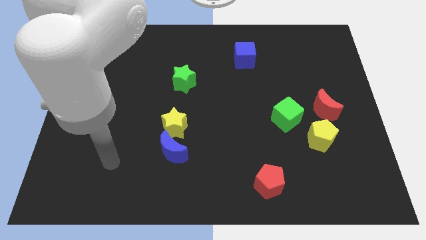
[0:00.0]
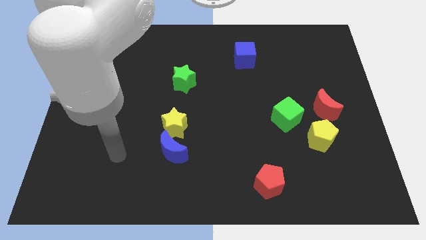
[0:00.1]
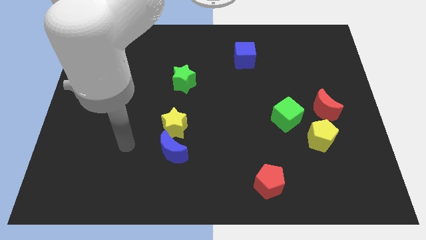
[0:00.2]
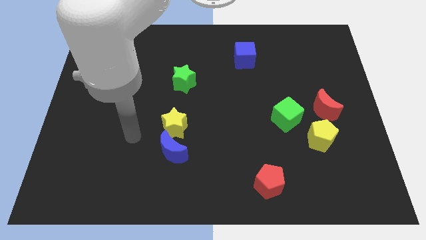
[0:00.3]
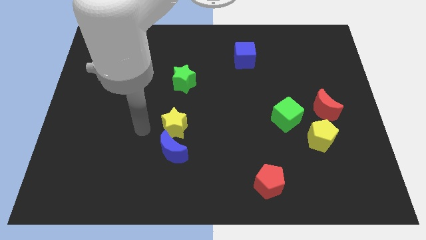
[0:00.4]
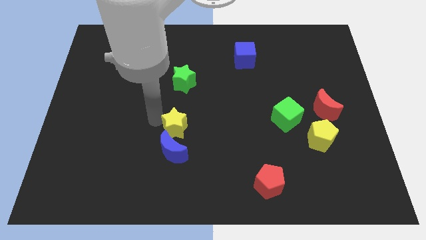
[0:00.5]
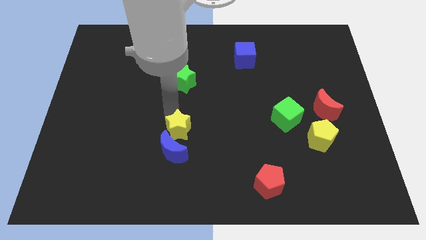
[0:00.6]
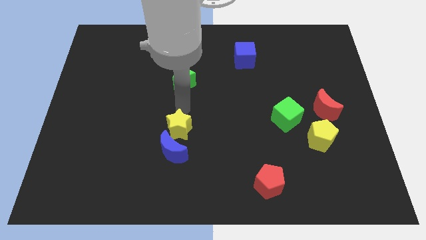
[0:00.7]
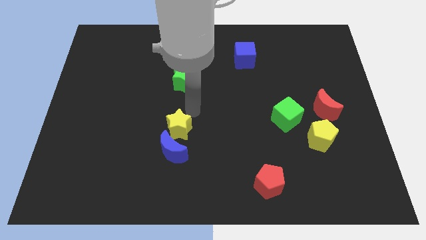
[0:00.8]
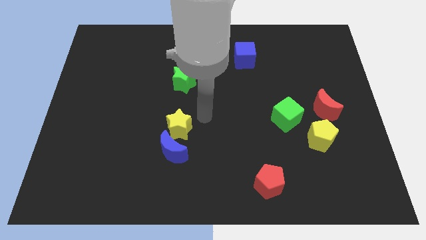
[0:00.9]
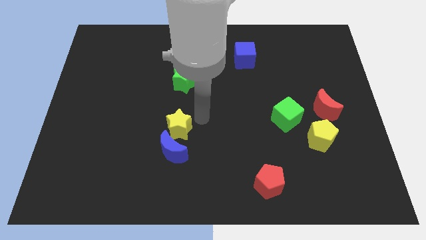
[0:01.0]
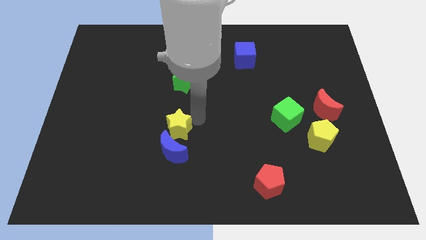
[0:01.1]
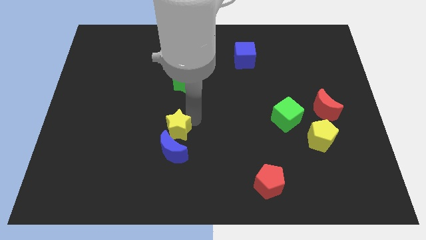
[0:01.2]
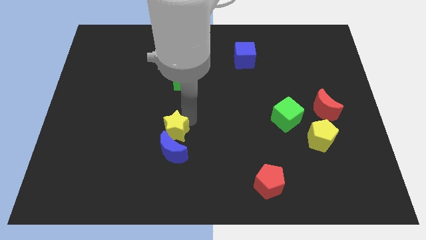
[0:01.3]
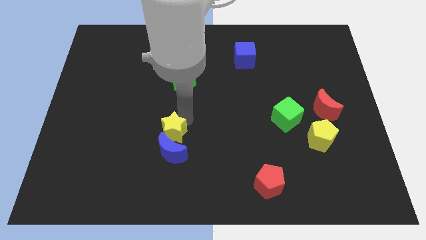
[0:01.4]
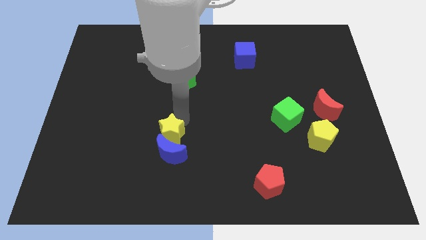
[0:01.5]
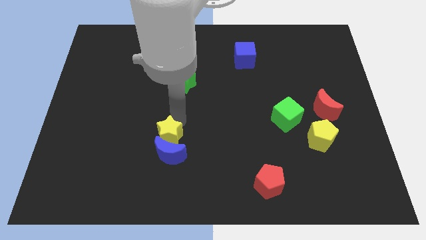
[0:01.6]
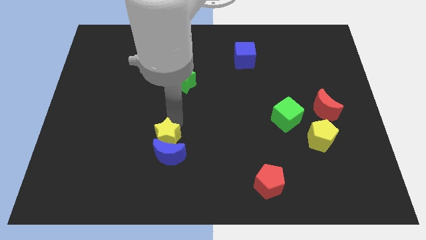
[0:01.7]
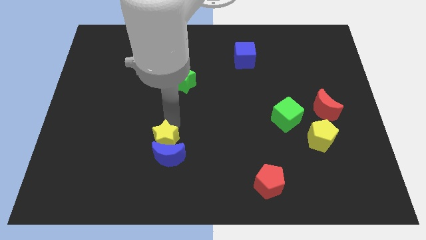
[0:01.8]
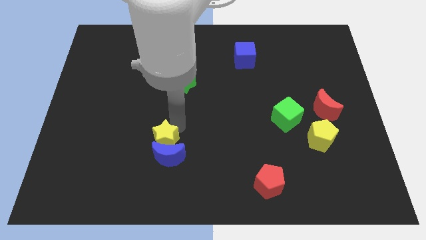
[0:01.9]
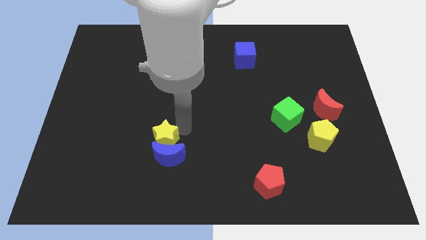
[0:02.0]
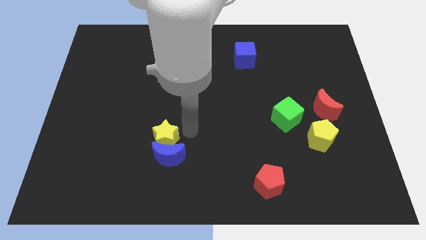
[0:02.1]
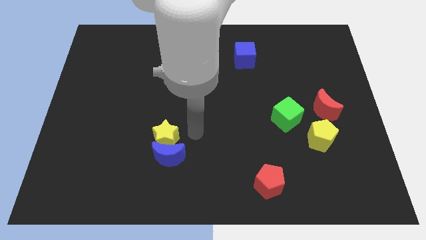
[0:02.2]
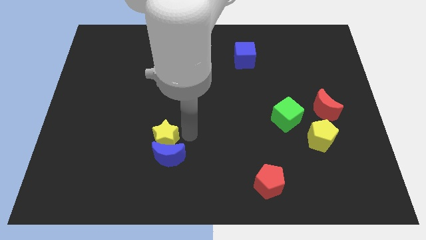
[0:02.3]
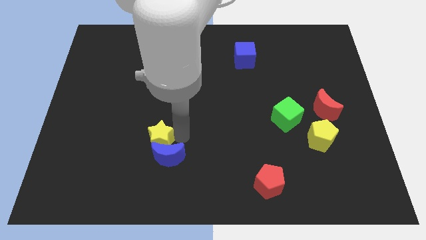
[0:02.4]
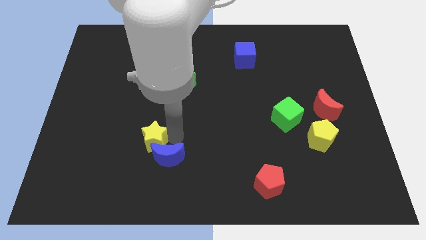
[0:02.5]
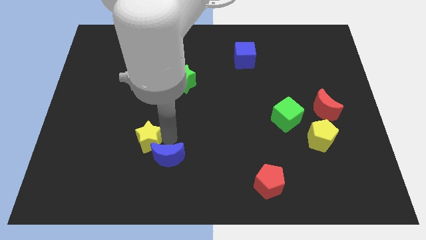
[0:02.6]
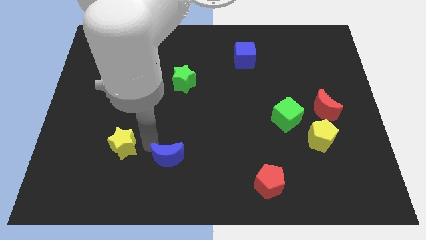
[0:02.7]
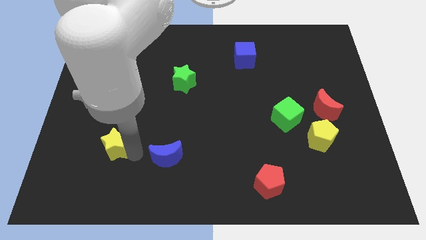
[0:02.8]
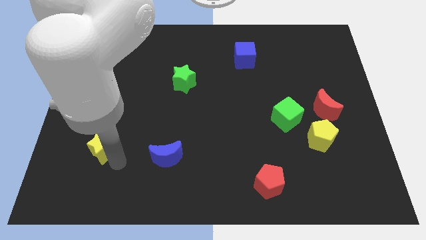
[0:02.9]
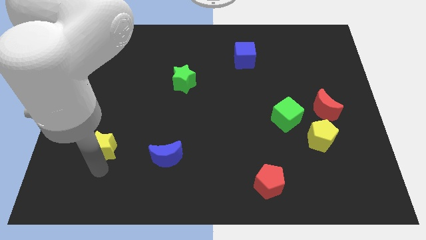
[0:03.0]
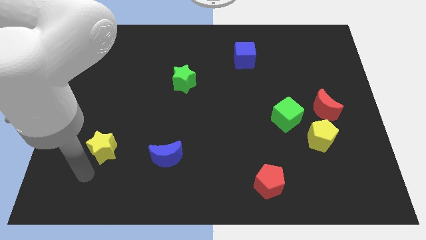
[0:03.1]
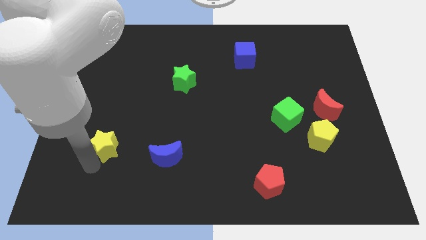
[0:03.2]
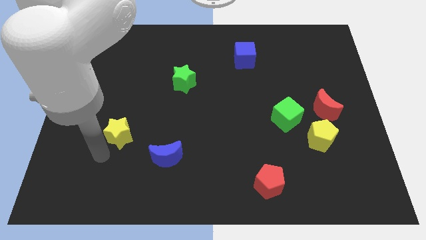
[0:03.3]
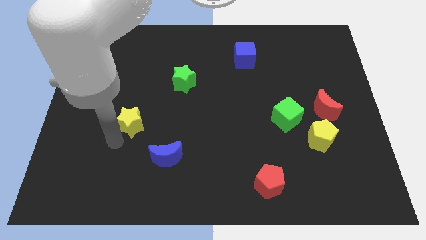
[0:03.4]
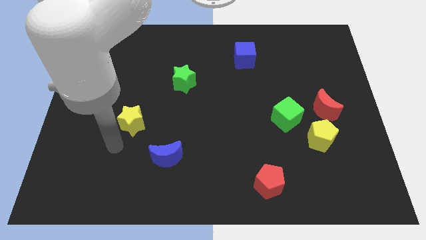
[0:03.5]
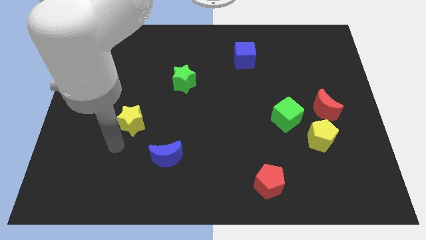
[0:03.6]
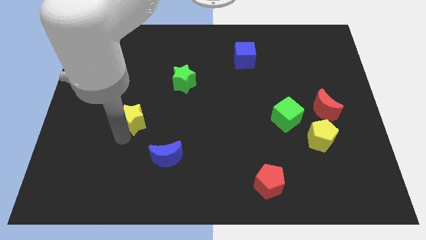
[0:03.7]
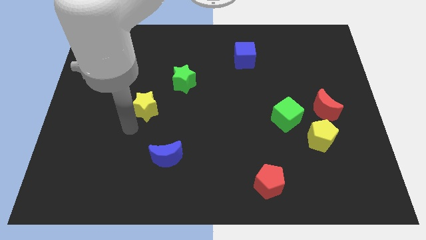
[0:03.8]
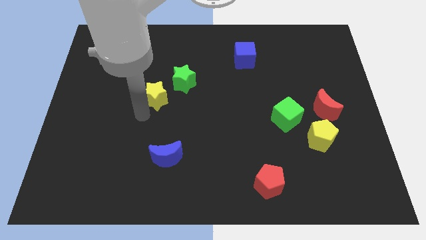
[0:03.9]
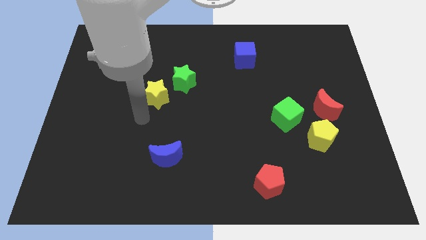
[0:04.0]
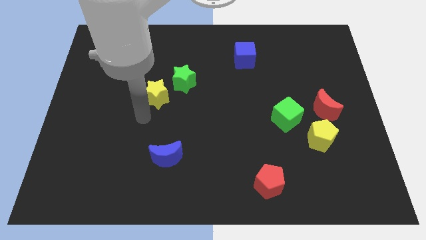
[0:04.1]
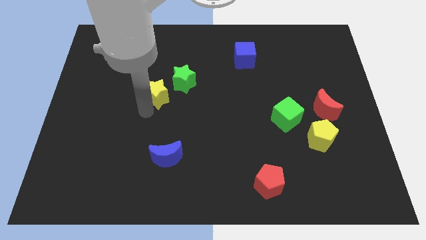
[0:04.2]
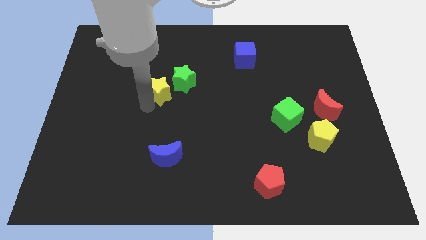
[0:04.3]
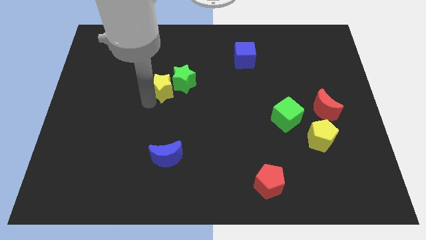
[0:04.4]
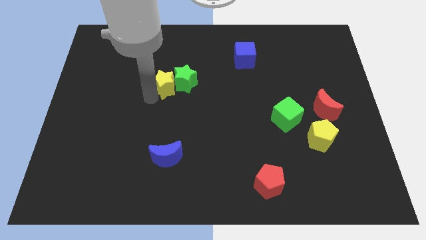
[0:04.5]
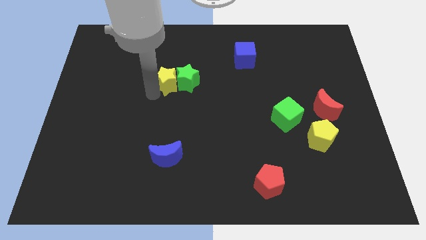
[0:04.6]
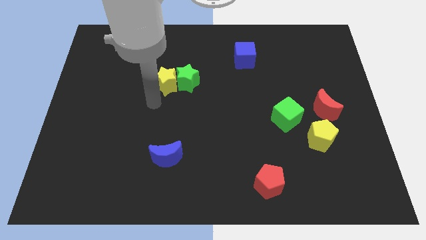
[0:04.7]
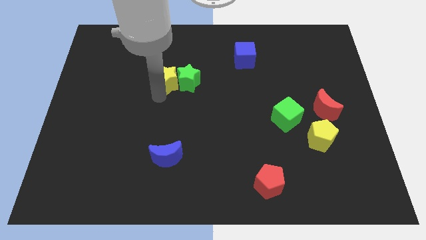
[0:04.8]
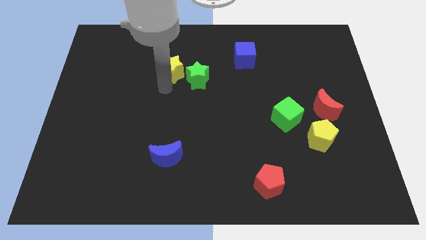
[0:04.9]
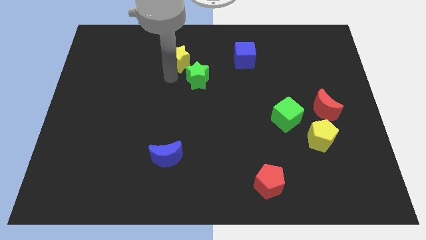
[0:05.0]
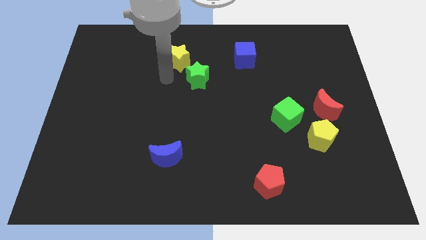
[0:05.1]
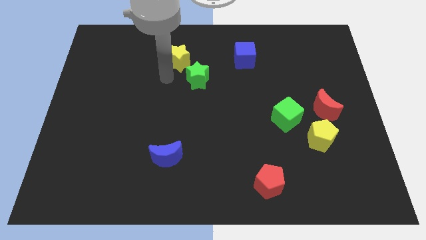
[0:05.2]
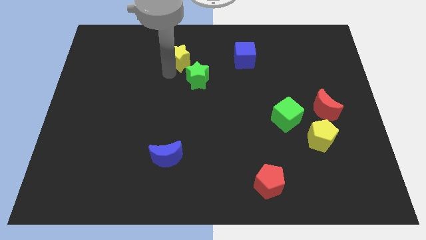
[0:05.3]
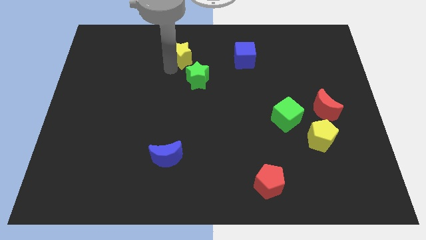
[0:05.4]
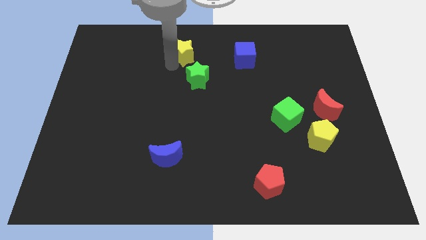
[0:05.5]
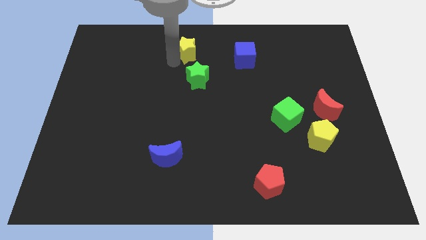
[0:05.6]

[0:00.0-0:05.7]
move the yellow star to the towards your base
